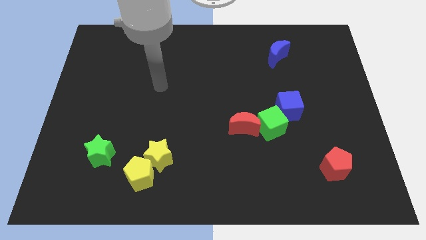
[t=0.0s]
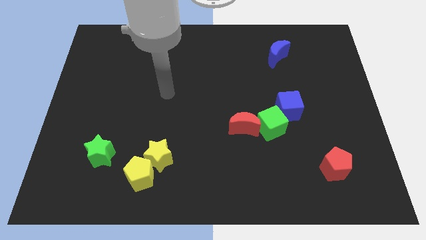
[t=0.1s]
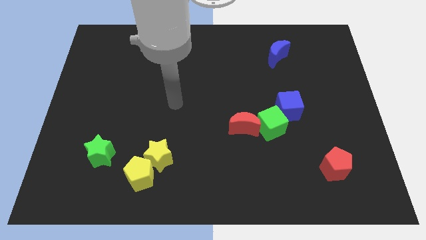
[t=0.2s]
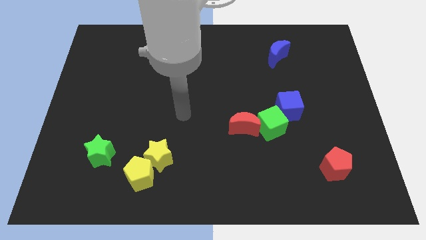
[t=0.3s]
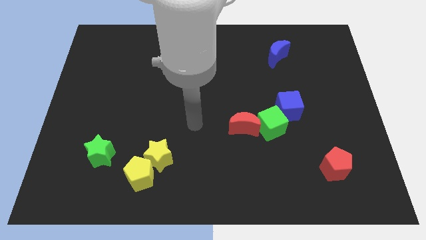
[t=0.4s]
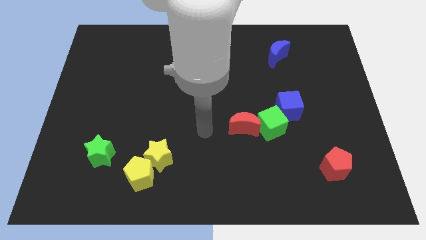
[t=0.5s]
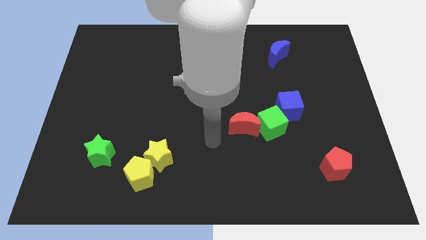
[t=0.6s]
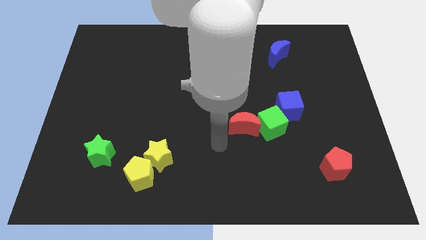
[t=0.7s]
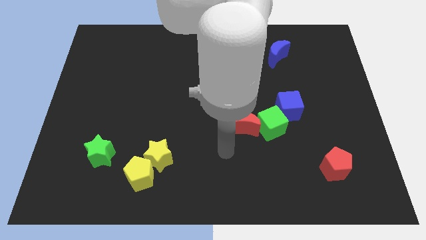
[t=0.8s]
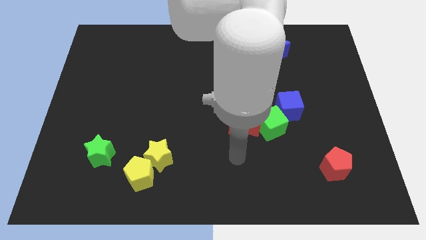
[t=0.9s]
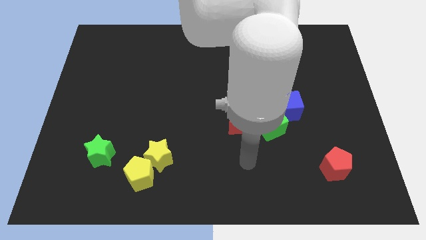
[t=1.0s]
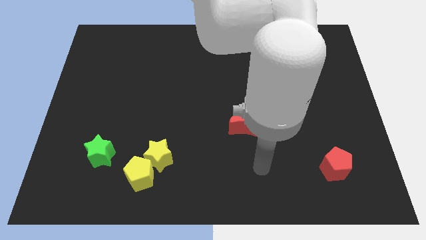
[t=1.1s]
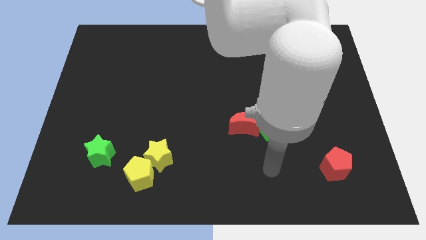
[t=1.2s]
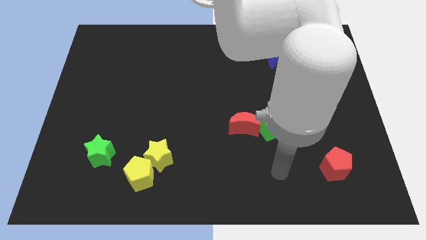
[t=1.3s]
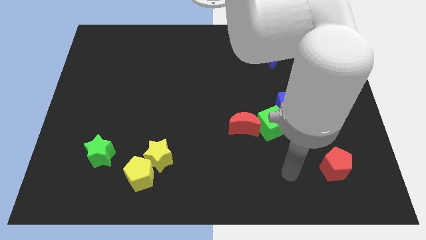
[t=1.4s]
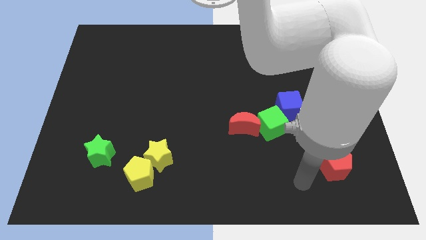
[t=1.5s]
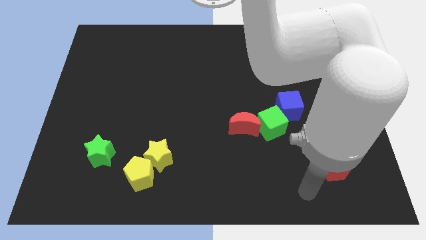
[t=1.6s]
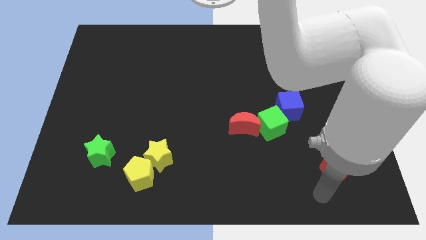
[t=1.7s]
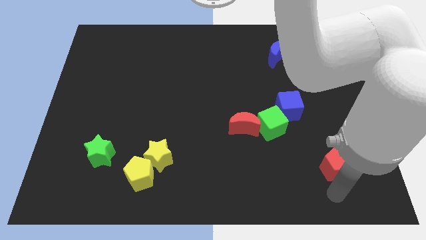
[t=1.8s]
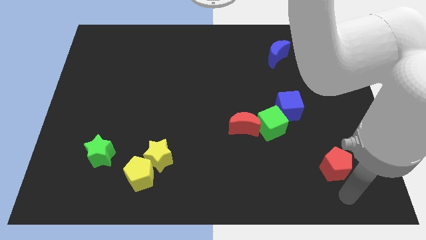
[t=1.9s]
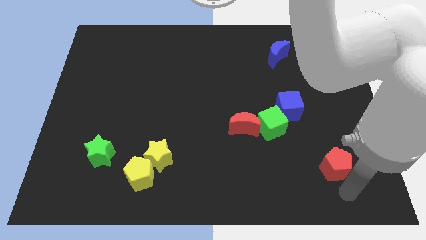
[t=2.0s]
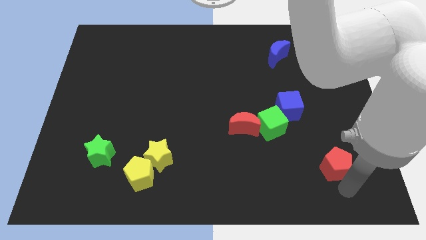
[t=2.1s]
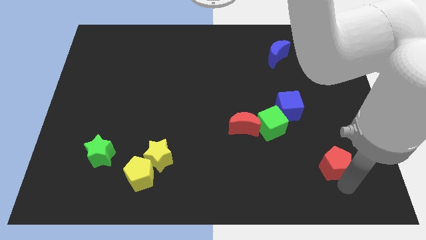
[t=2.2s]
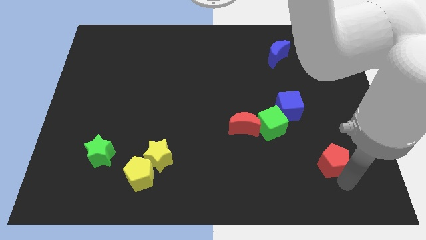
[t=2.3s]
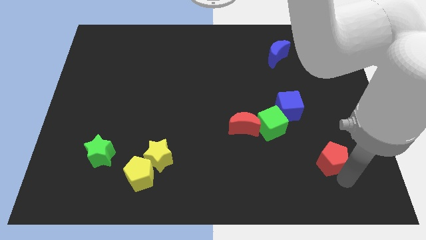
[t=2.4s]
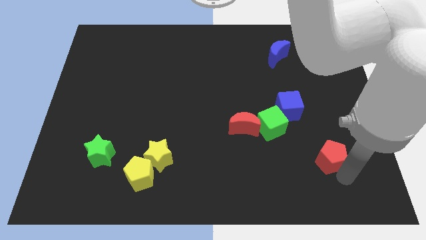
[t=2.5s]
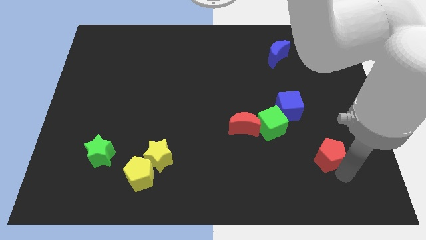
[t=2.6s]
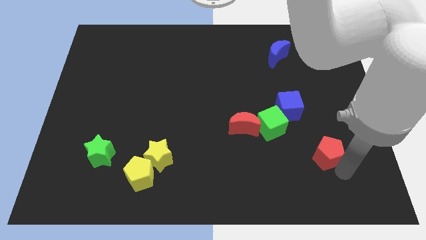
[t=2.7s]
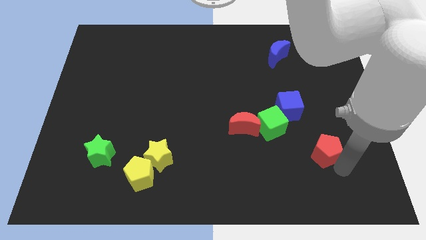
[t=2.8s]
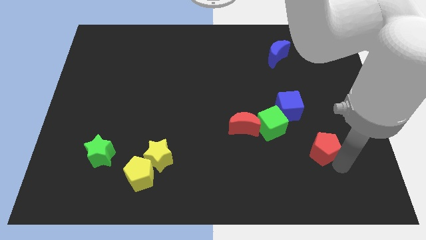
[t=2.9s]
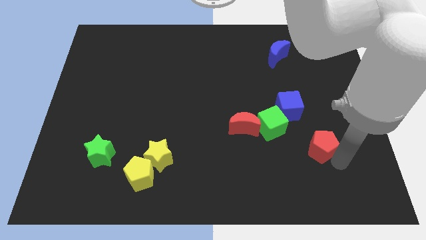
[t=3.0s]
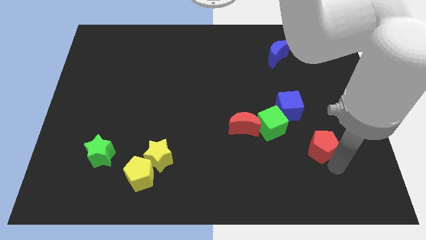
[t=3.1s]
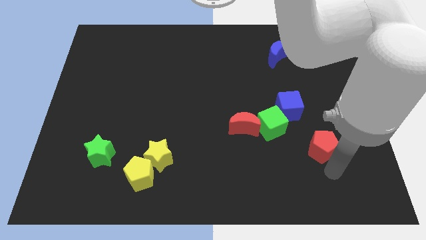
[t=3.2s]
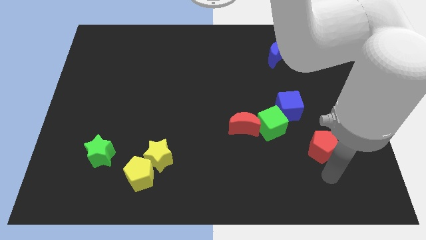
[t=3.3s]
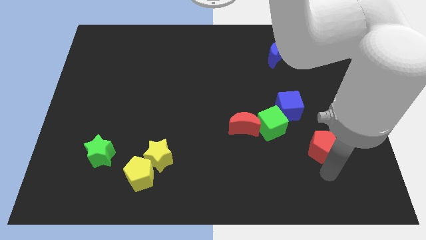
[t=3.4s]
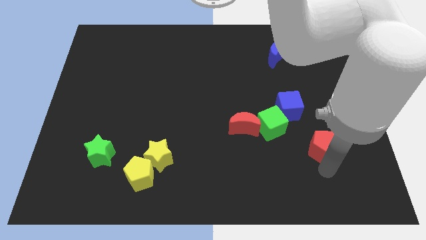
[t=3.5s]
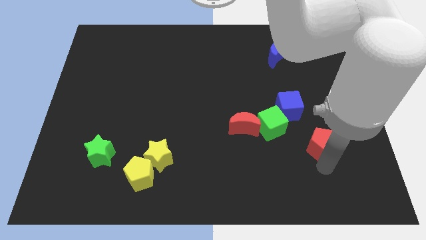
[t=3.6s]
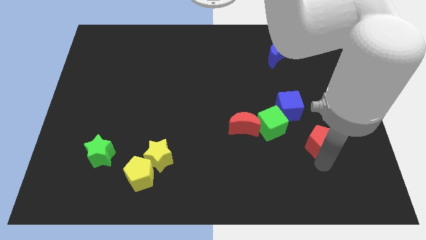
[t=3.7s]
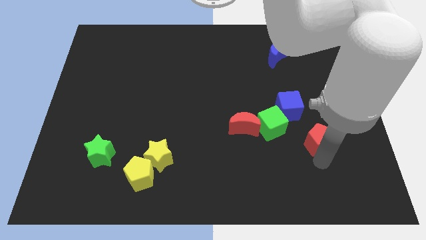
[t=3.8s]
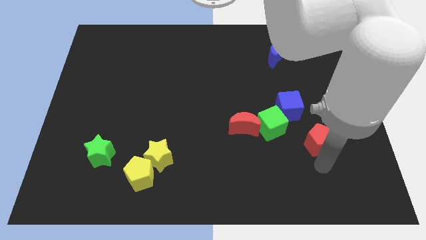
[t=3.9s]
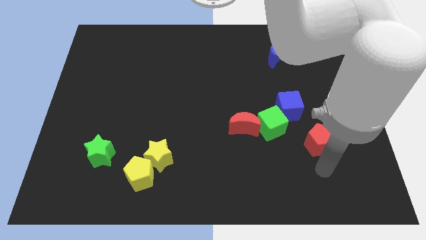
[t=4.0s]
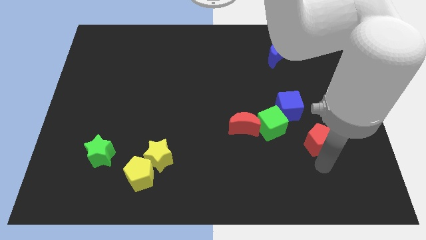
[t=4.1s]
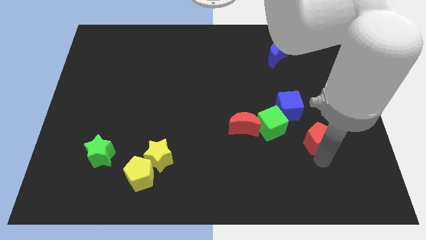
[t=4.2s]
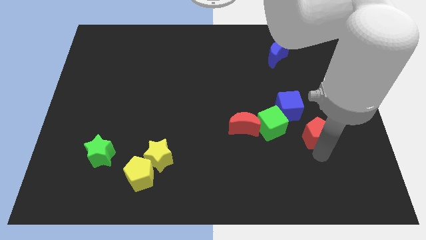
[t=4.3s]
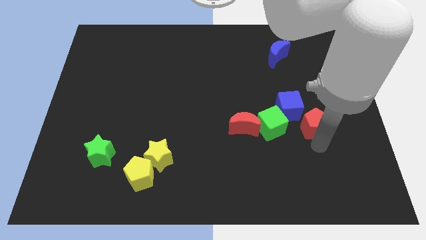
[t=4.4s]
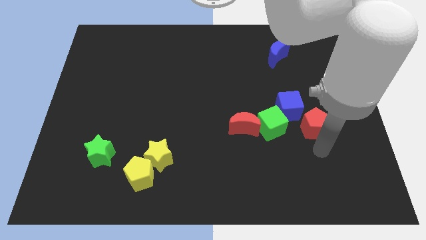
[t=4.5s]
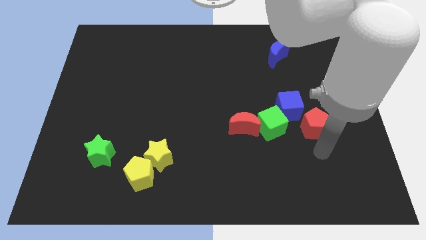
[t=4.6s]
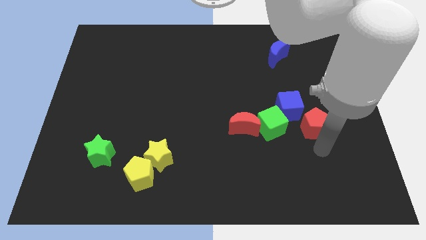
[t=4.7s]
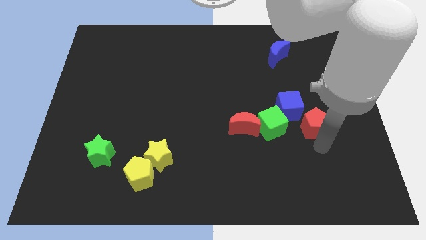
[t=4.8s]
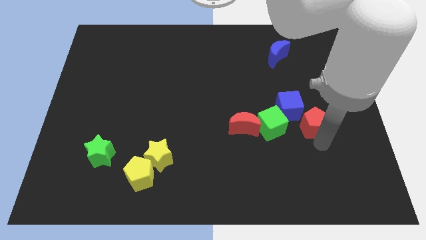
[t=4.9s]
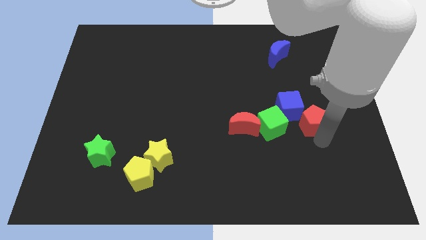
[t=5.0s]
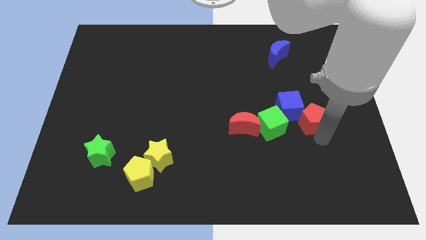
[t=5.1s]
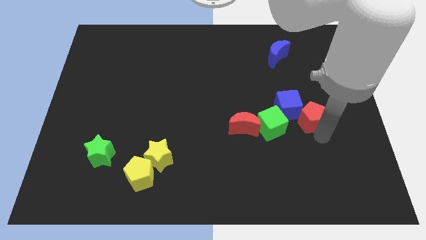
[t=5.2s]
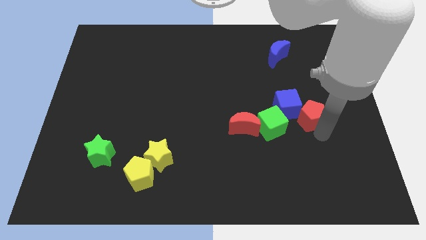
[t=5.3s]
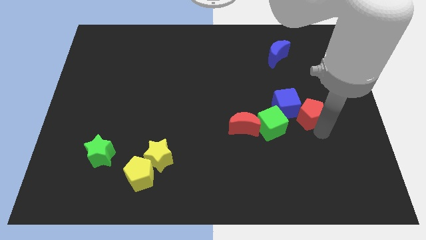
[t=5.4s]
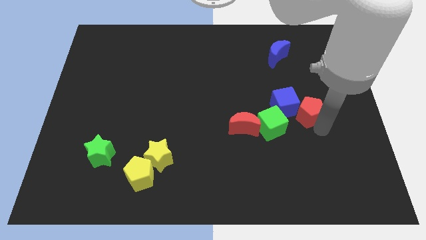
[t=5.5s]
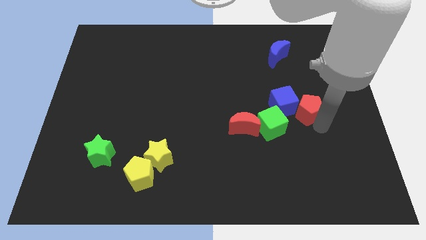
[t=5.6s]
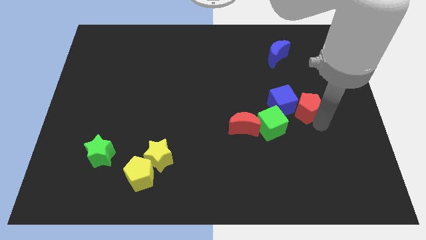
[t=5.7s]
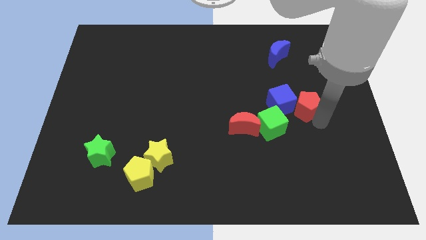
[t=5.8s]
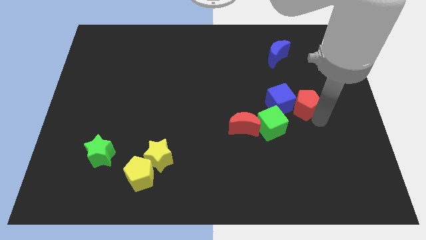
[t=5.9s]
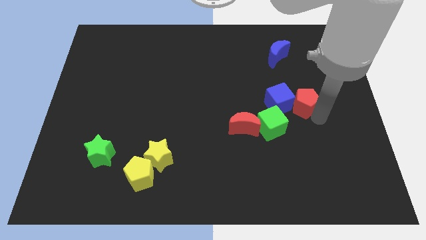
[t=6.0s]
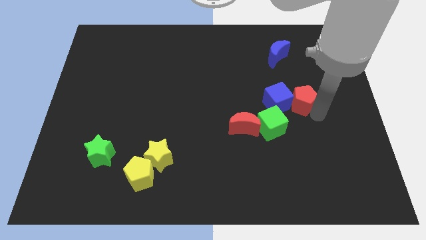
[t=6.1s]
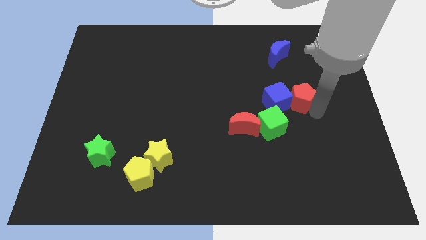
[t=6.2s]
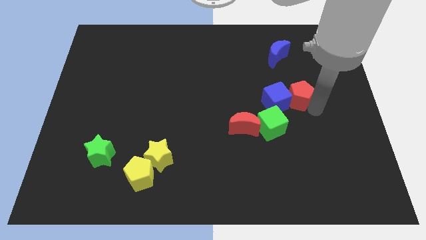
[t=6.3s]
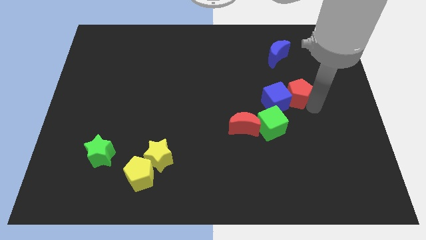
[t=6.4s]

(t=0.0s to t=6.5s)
slide the red pentagon to the bottom of the blue moon
